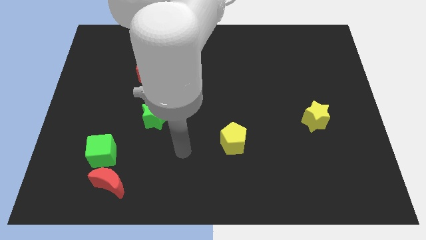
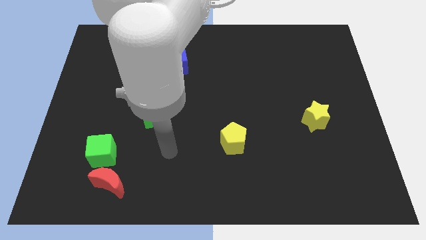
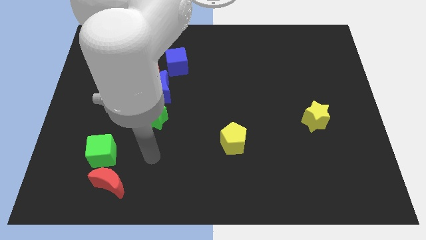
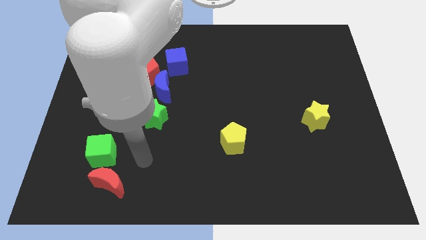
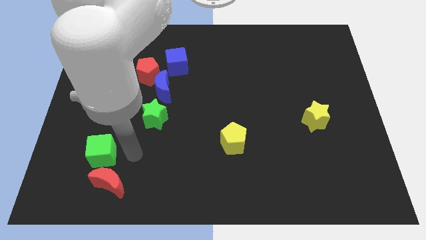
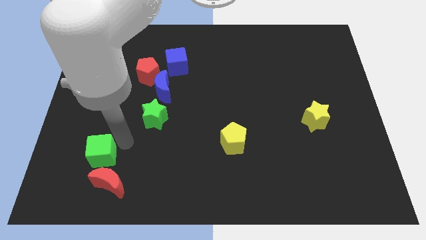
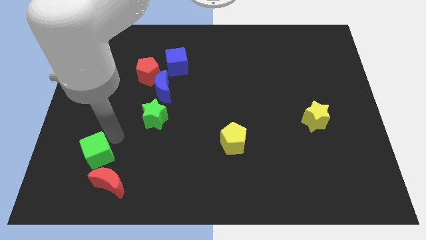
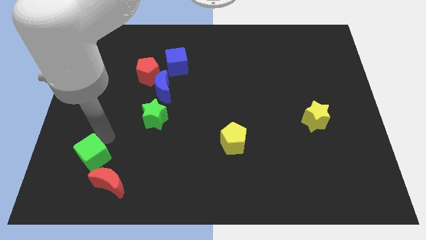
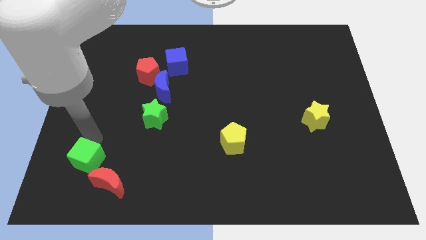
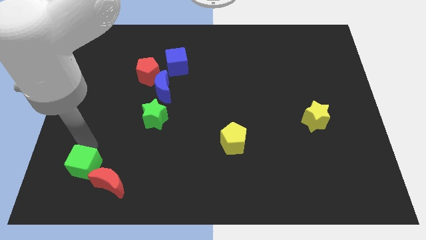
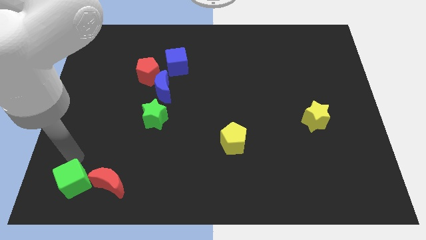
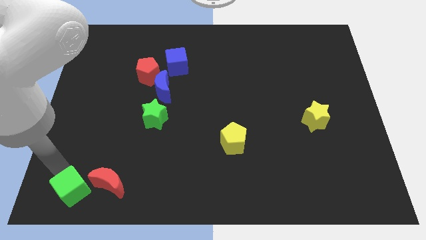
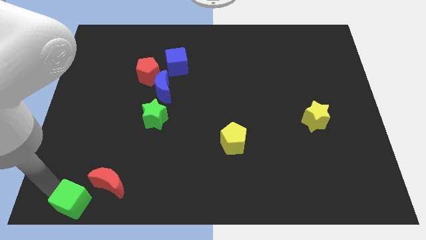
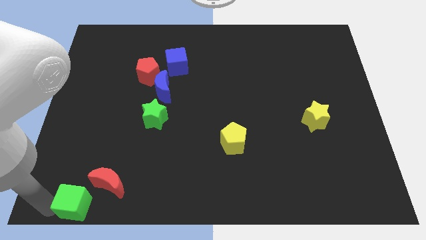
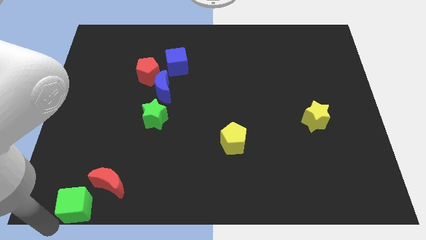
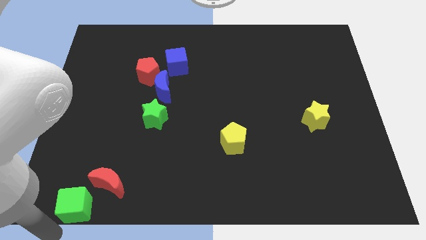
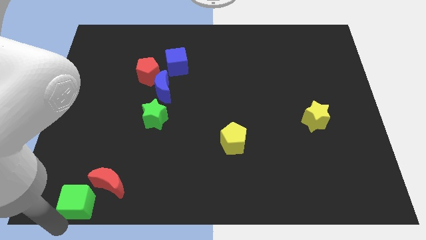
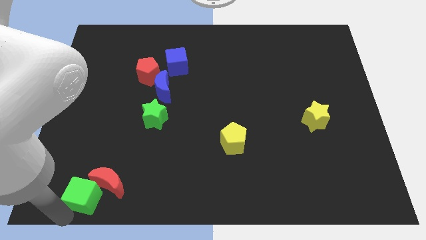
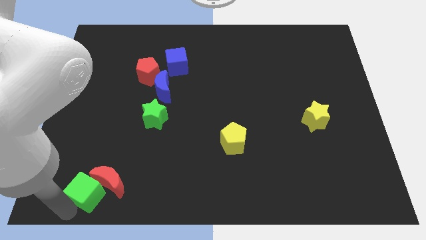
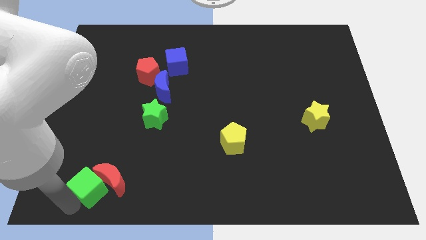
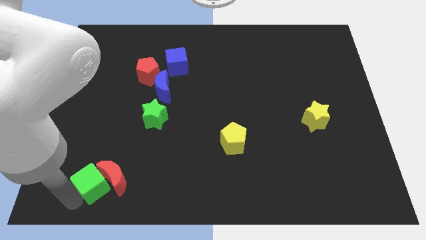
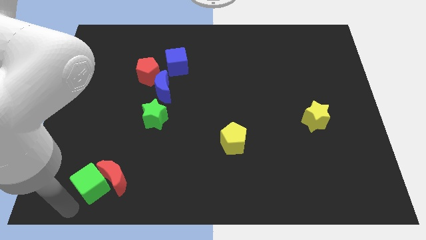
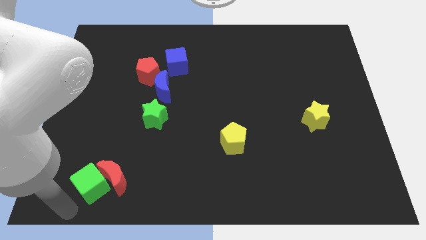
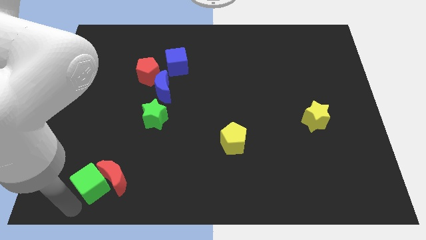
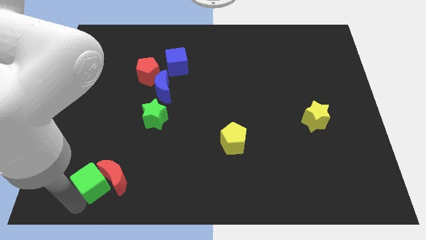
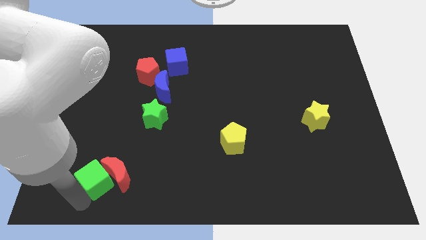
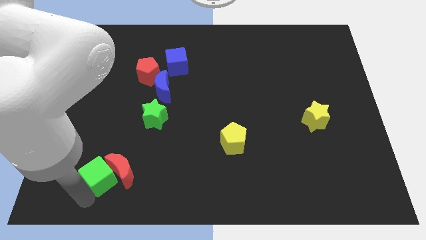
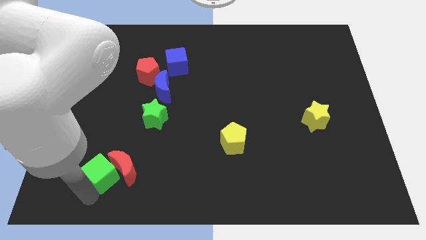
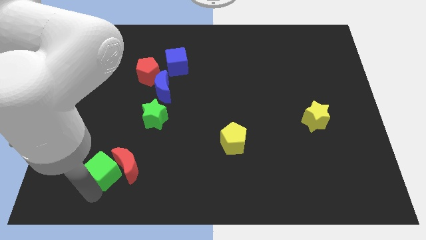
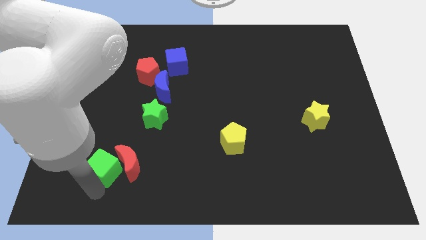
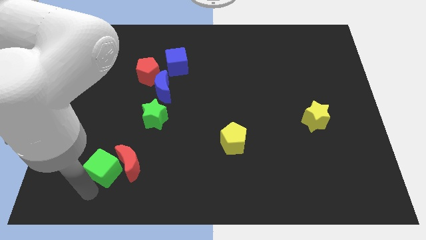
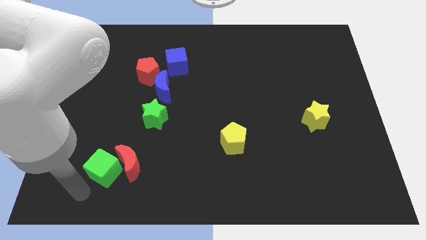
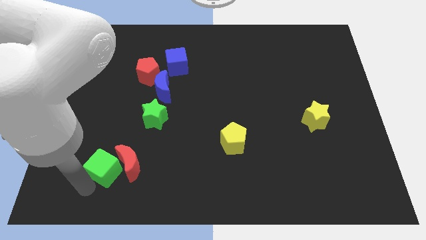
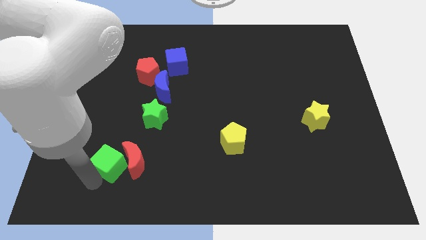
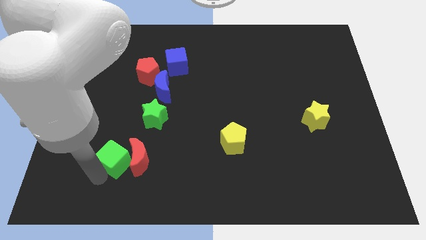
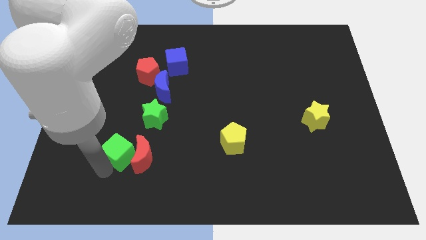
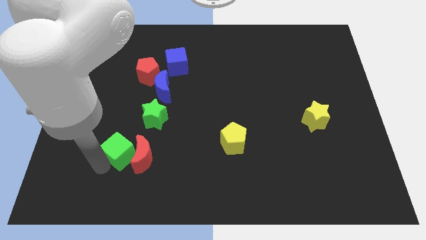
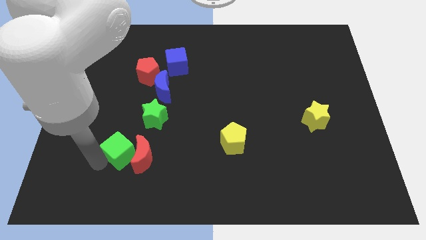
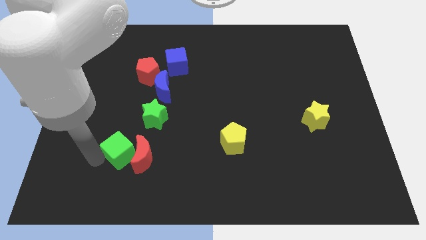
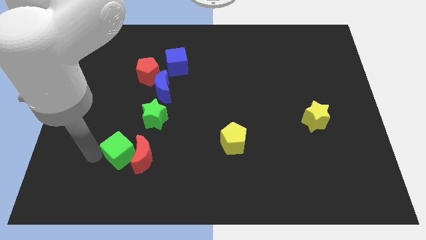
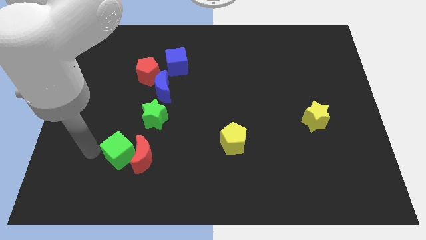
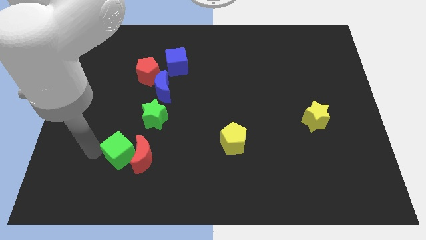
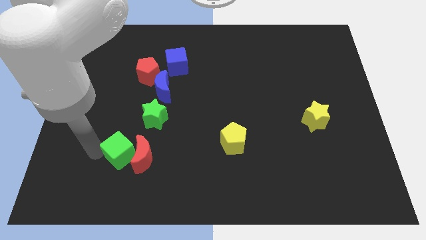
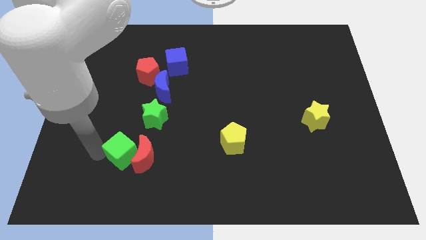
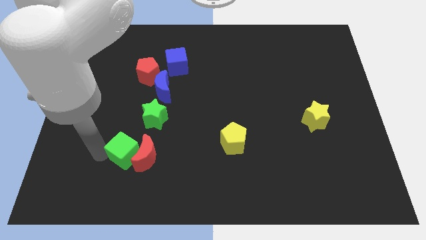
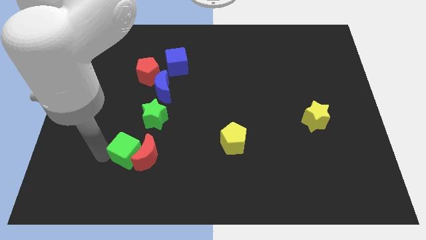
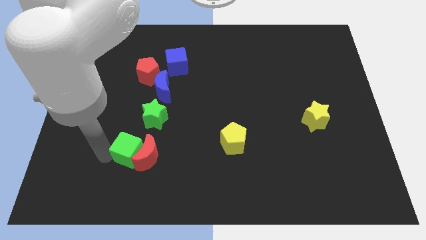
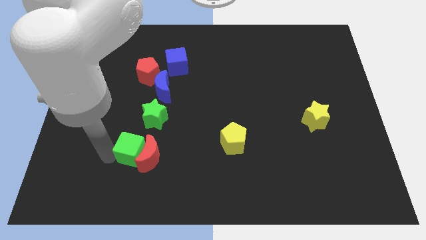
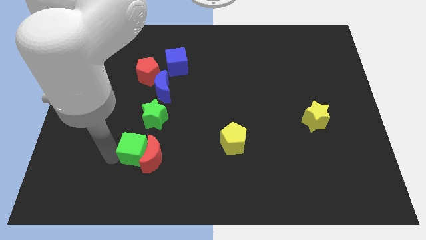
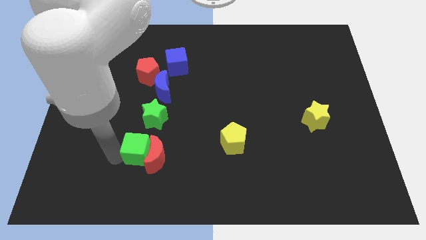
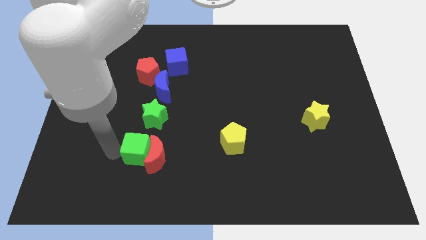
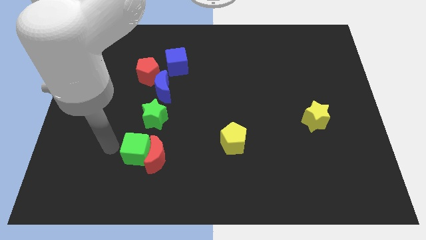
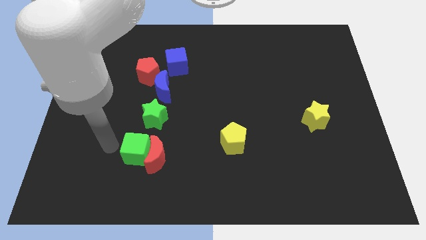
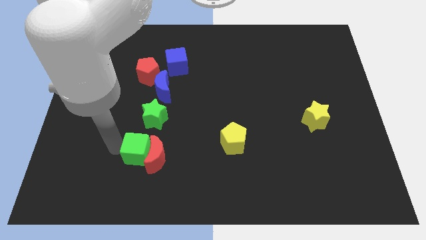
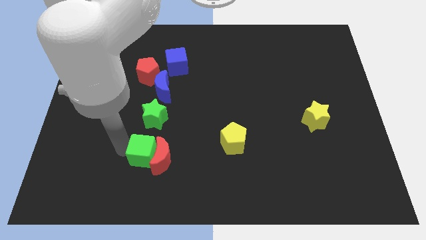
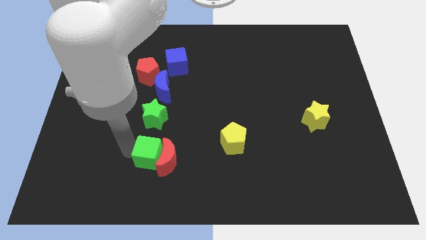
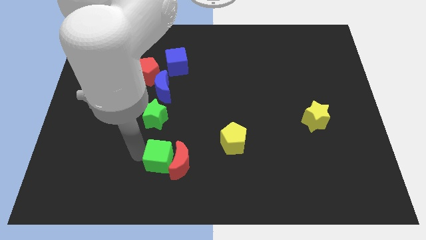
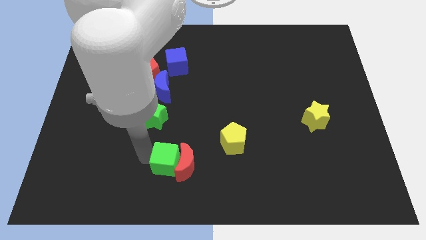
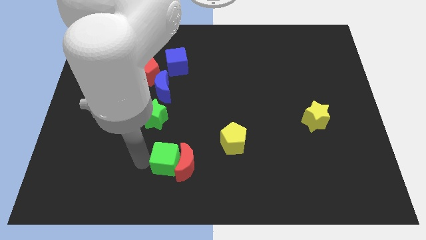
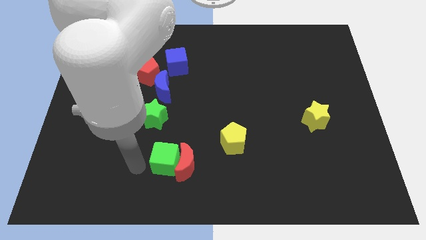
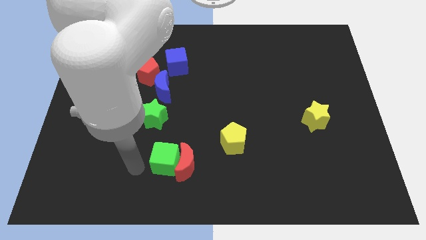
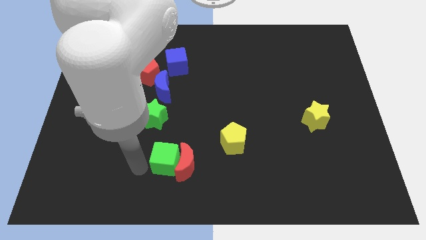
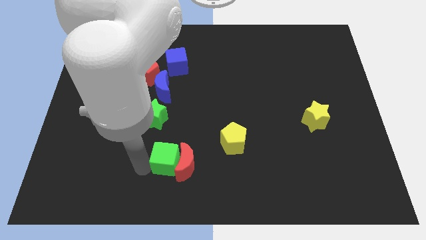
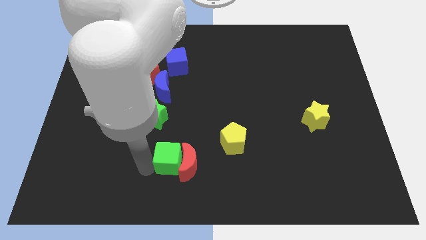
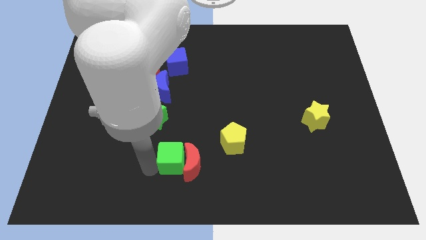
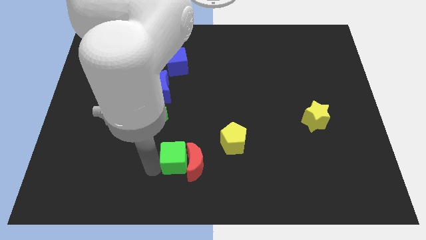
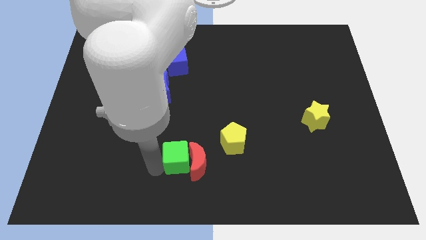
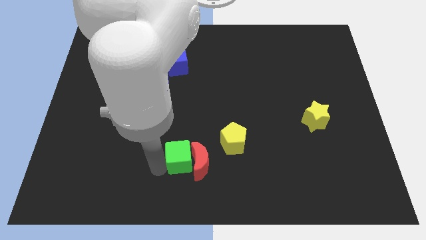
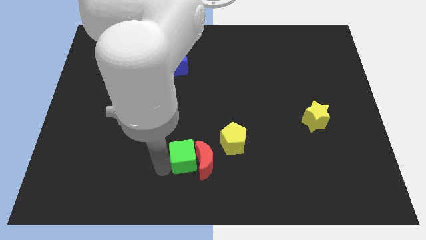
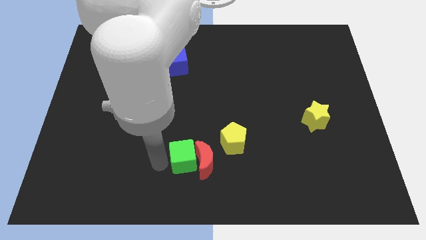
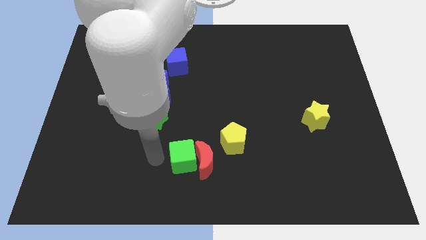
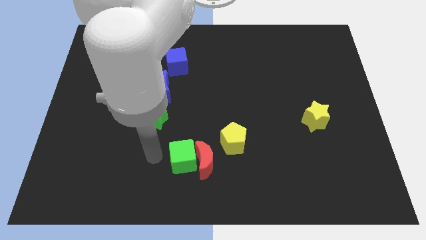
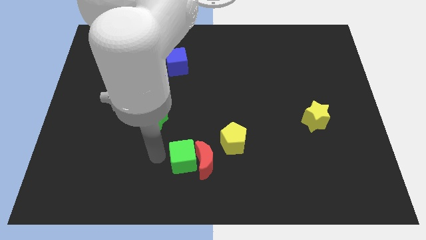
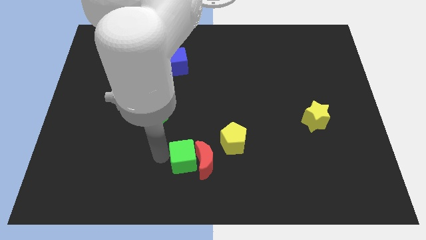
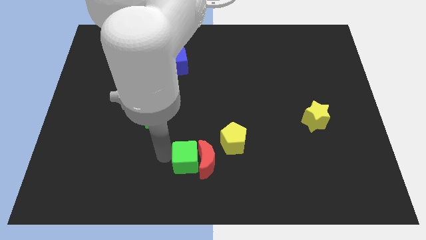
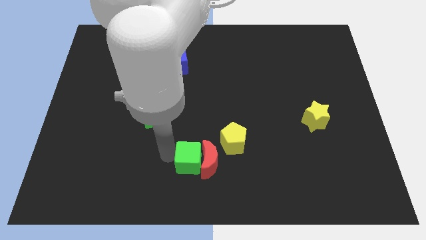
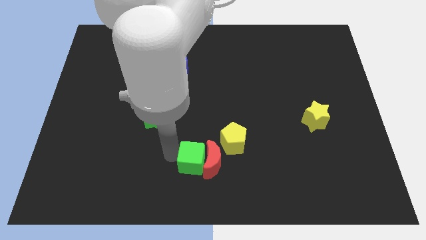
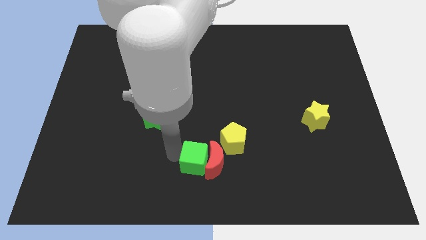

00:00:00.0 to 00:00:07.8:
push the green cube to the right

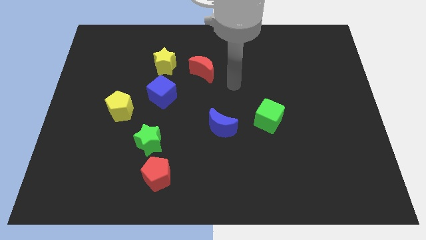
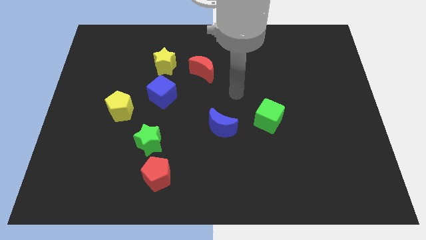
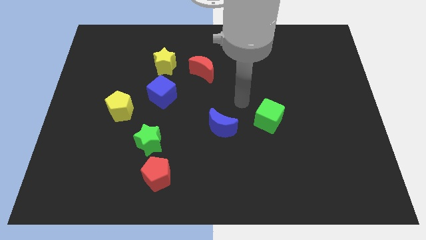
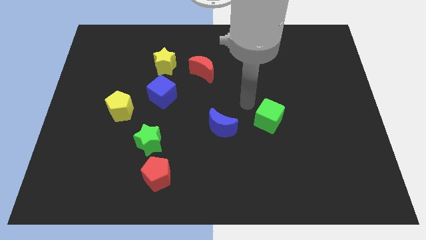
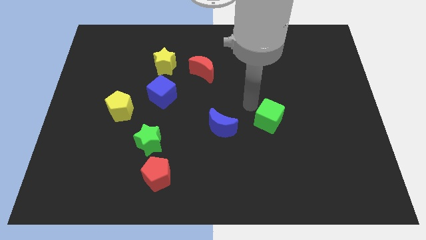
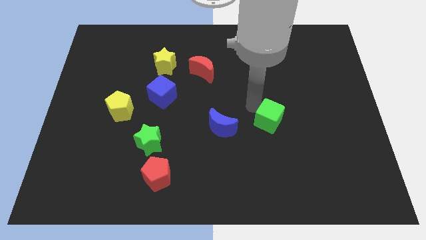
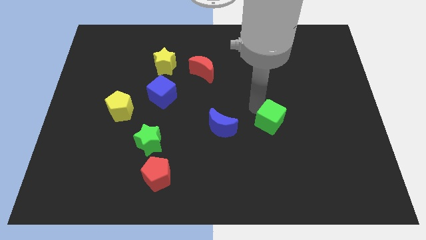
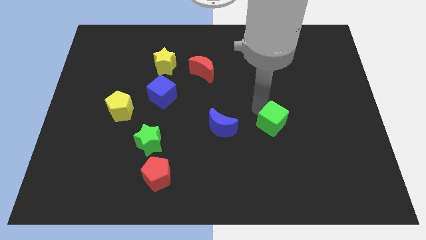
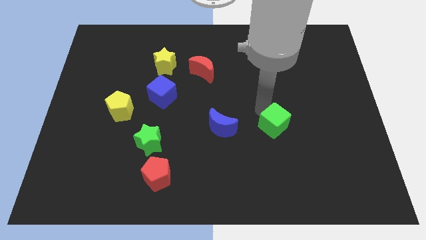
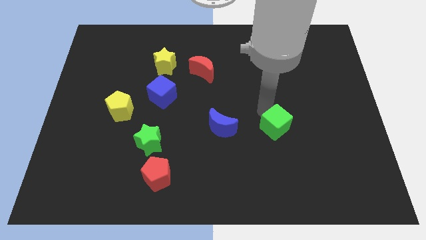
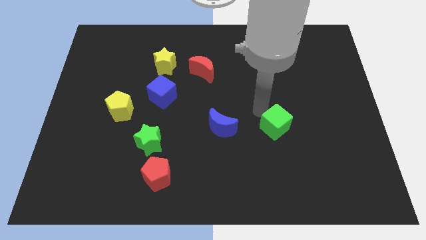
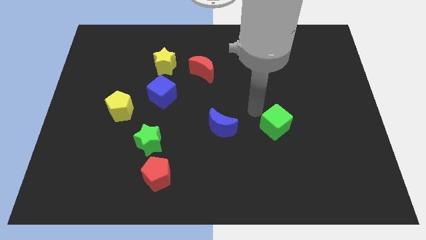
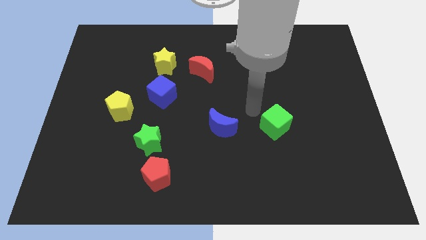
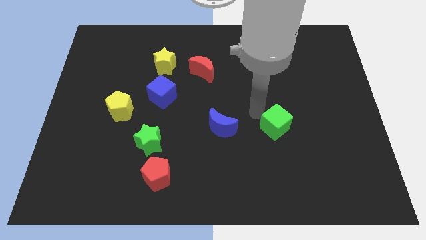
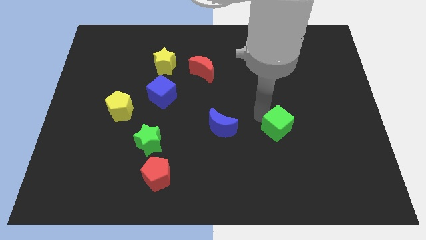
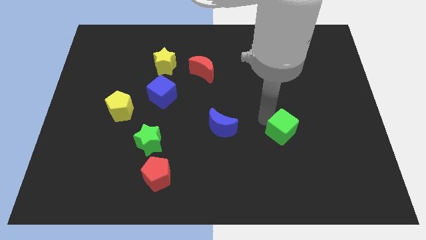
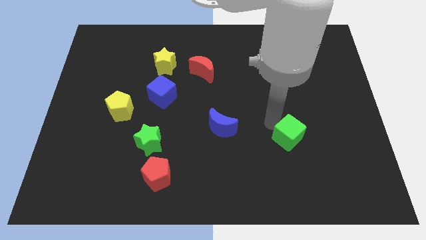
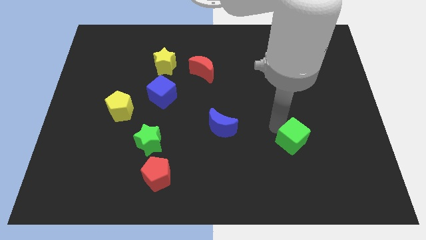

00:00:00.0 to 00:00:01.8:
slightly move the green cube down and then to the right
